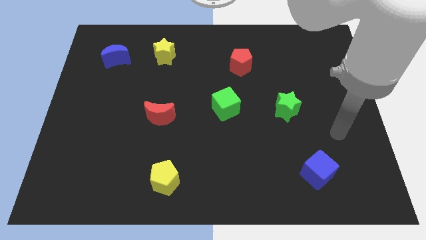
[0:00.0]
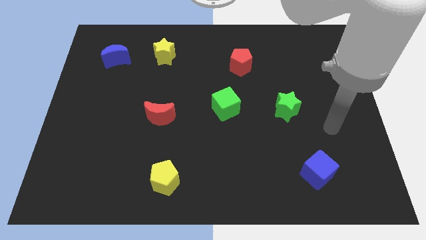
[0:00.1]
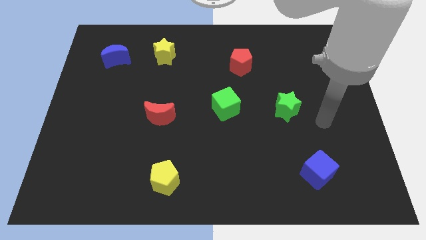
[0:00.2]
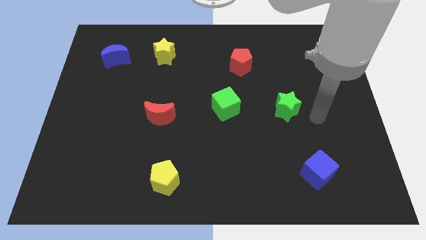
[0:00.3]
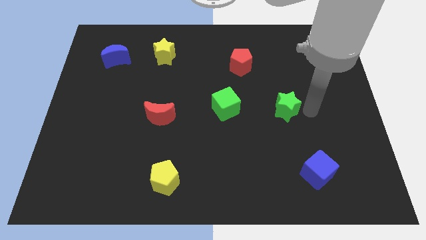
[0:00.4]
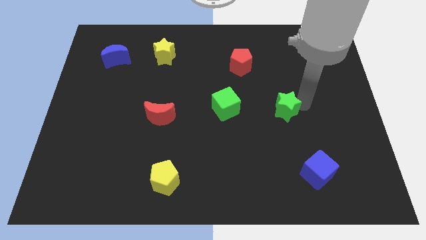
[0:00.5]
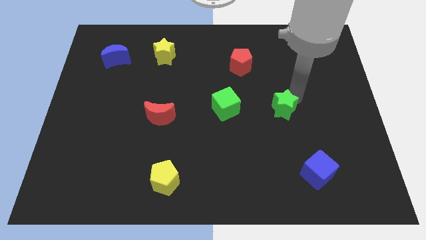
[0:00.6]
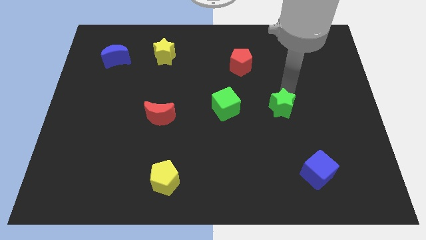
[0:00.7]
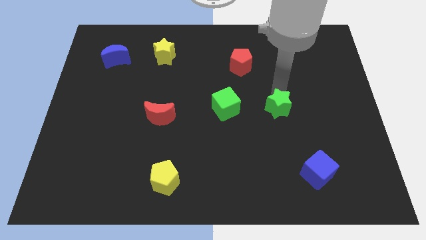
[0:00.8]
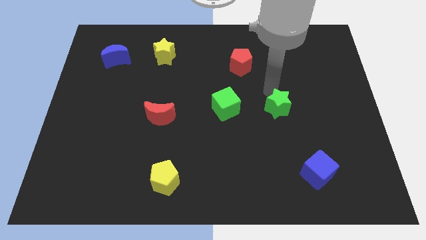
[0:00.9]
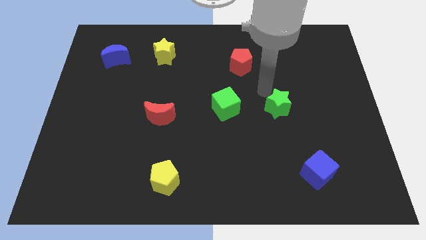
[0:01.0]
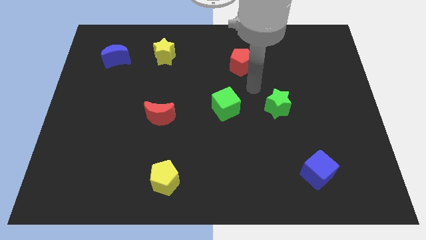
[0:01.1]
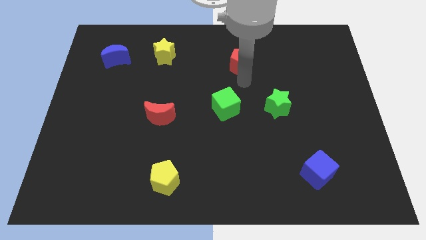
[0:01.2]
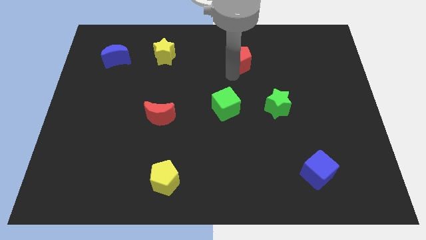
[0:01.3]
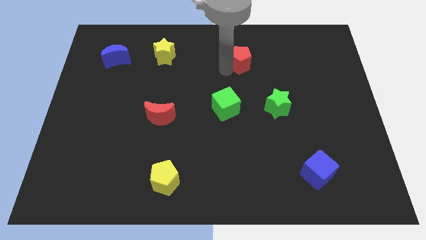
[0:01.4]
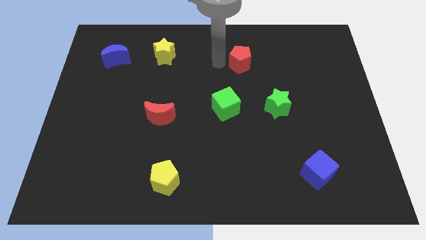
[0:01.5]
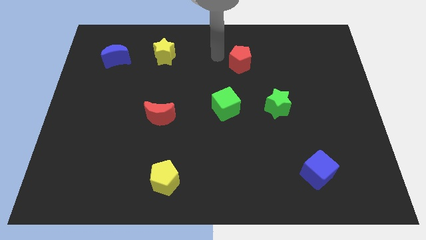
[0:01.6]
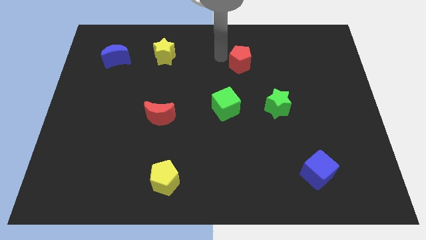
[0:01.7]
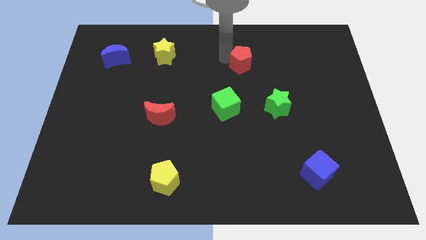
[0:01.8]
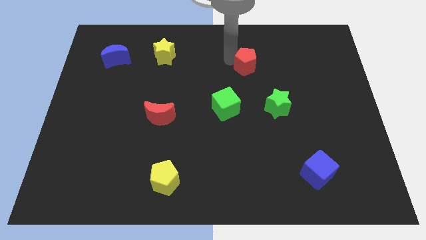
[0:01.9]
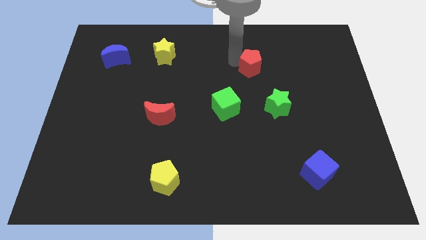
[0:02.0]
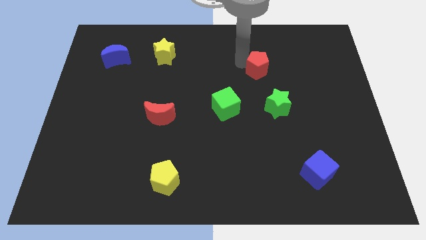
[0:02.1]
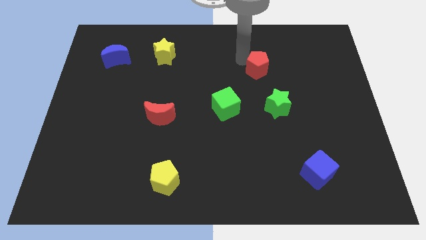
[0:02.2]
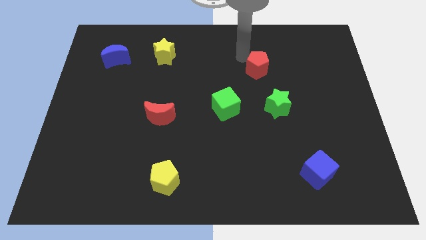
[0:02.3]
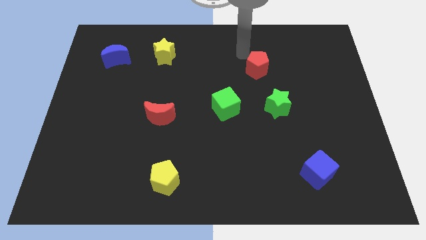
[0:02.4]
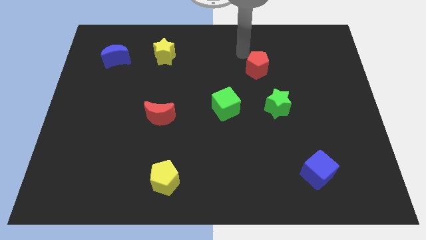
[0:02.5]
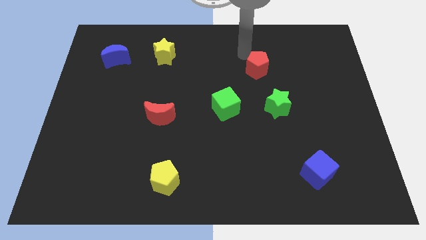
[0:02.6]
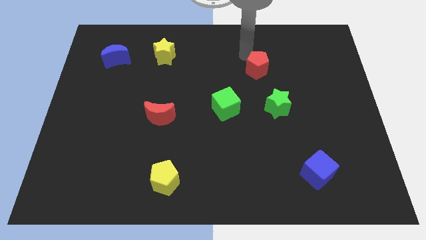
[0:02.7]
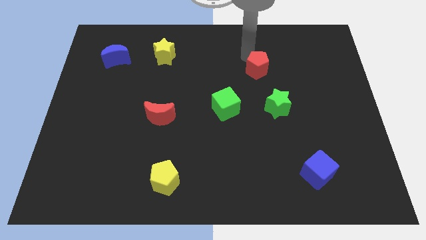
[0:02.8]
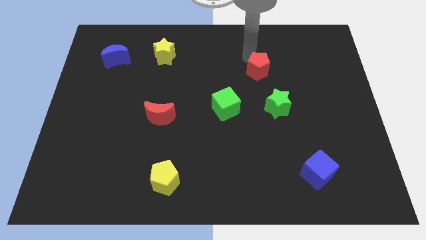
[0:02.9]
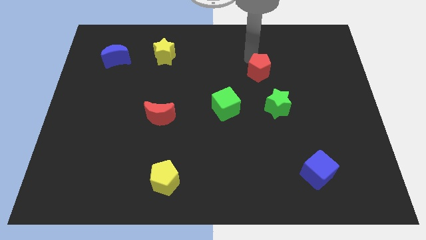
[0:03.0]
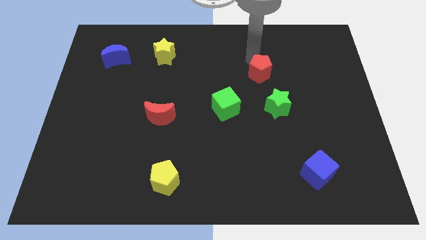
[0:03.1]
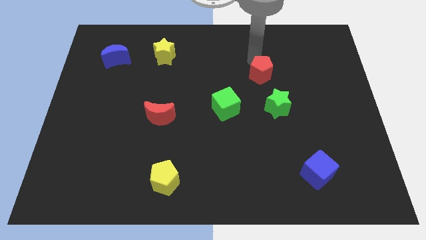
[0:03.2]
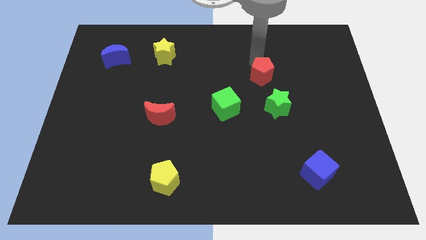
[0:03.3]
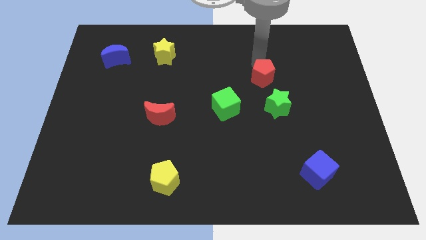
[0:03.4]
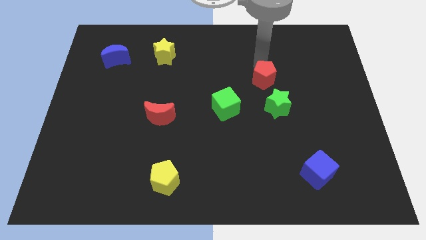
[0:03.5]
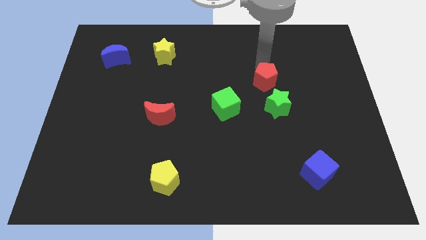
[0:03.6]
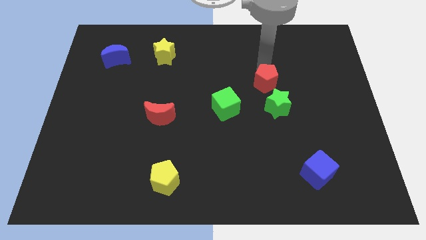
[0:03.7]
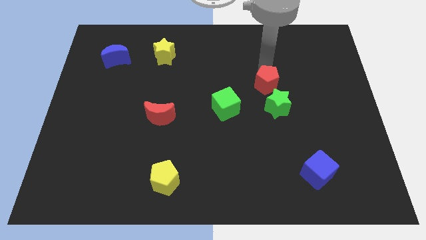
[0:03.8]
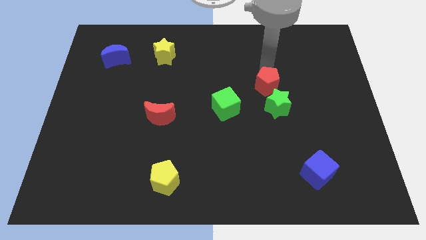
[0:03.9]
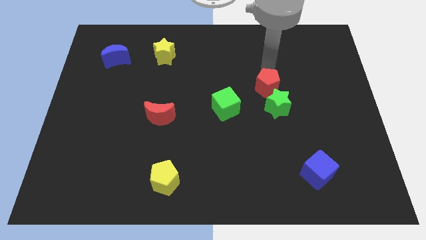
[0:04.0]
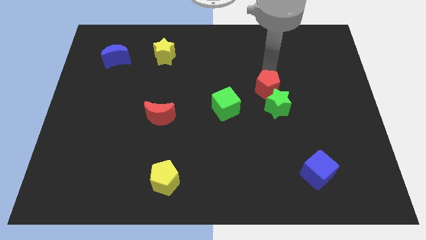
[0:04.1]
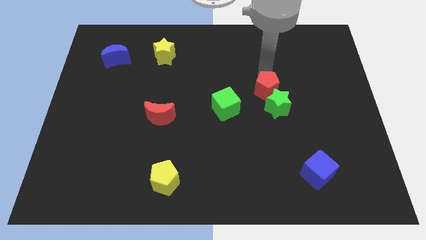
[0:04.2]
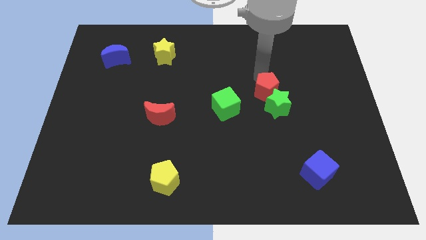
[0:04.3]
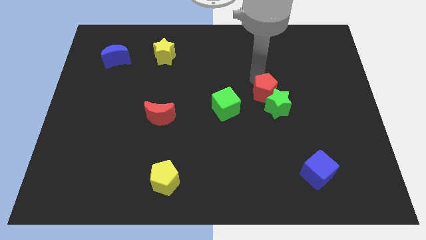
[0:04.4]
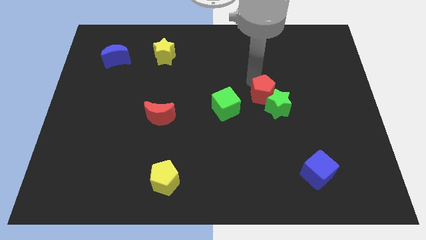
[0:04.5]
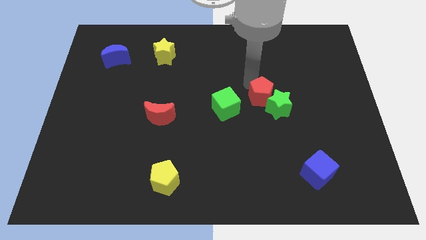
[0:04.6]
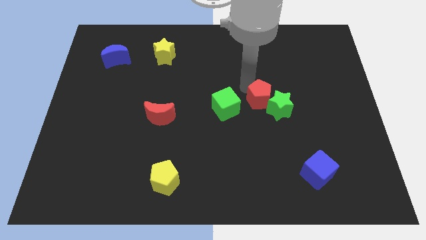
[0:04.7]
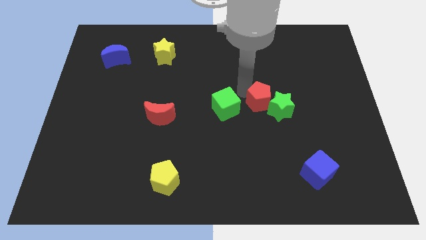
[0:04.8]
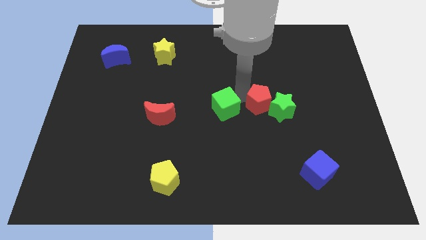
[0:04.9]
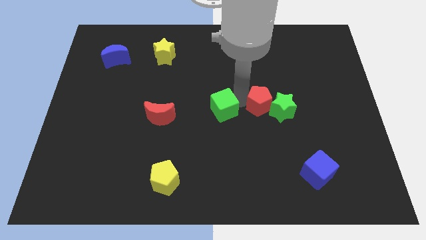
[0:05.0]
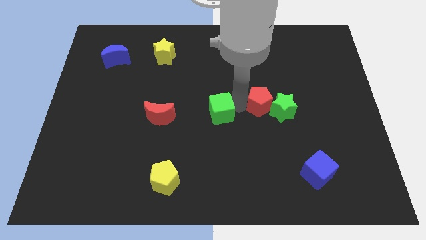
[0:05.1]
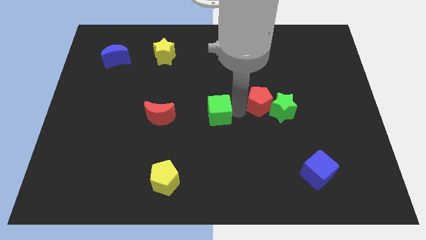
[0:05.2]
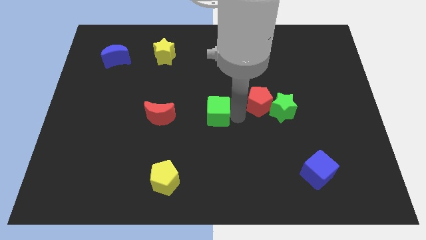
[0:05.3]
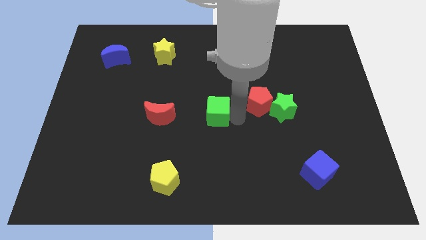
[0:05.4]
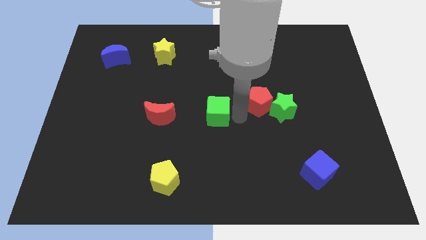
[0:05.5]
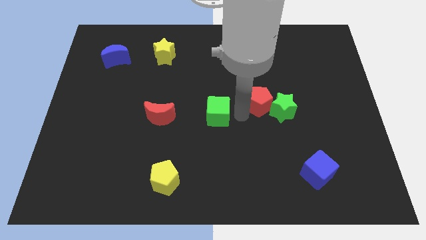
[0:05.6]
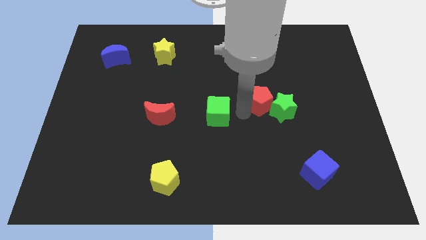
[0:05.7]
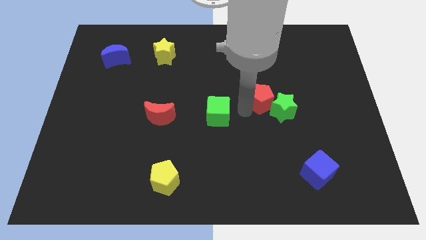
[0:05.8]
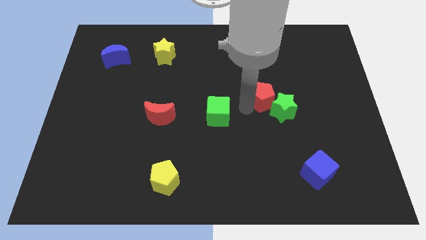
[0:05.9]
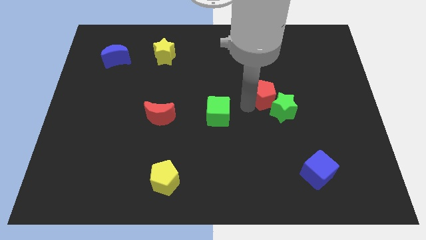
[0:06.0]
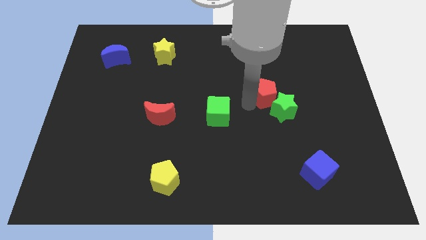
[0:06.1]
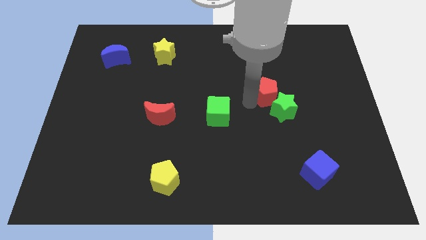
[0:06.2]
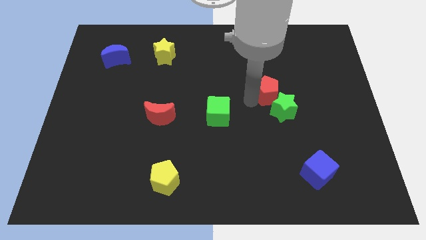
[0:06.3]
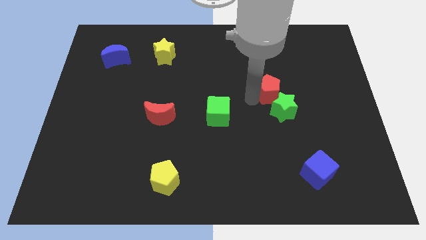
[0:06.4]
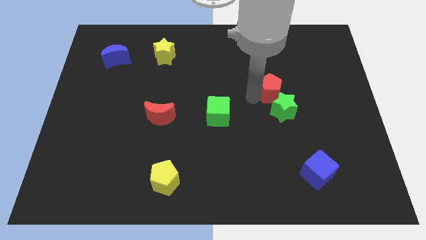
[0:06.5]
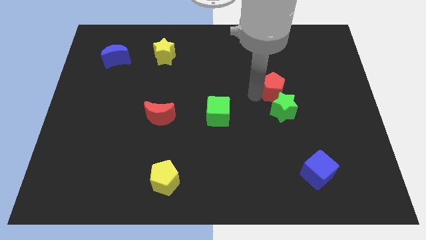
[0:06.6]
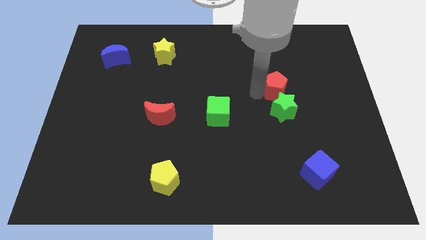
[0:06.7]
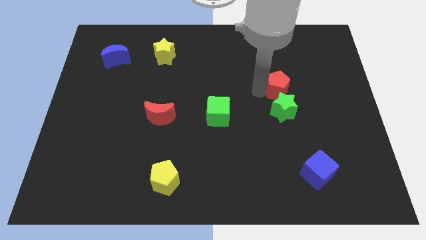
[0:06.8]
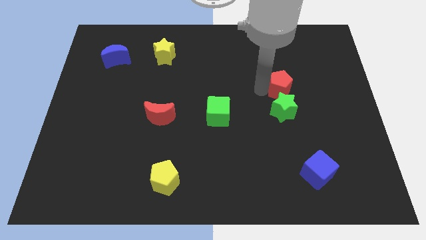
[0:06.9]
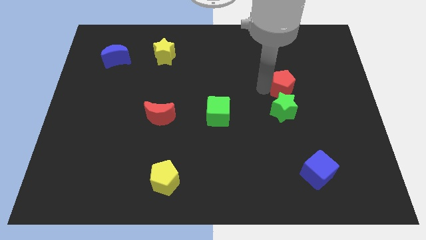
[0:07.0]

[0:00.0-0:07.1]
move the red pentagon diagonally up and to the right of the green star
